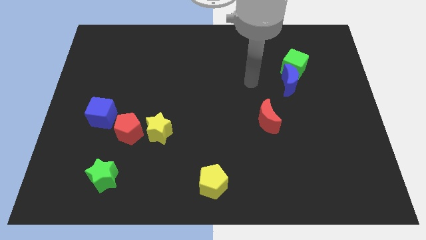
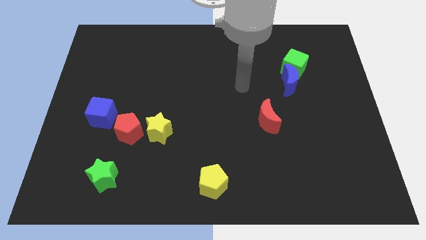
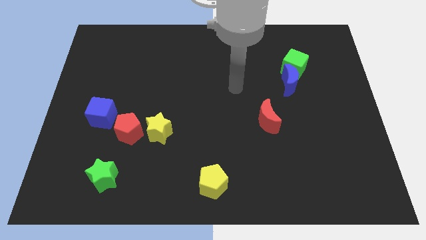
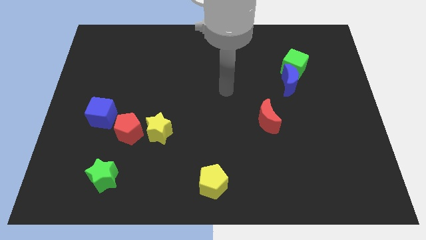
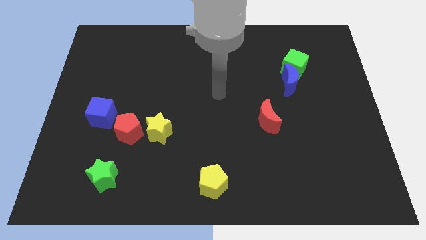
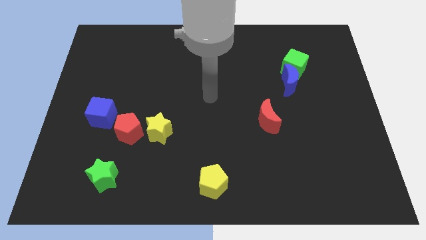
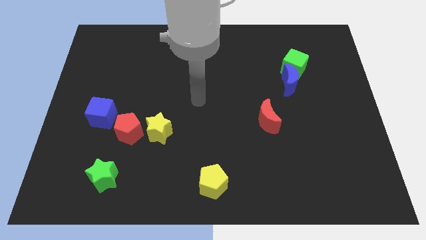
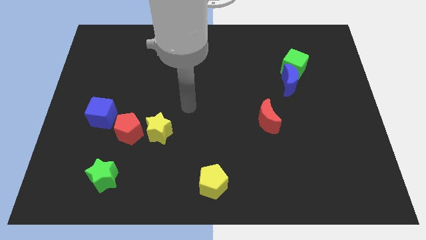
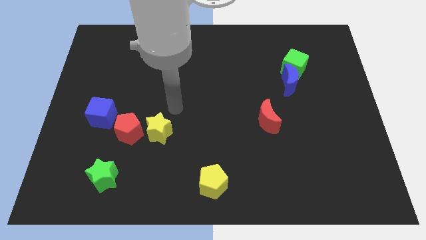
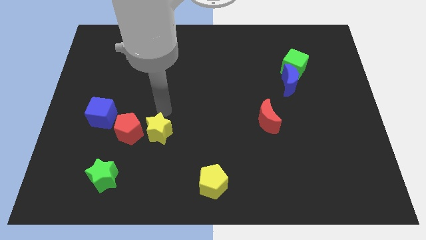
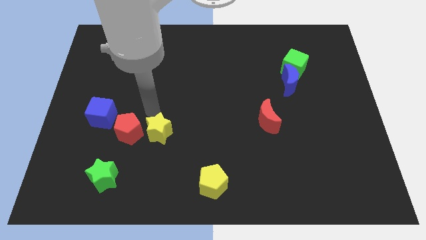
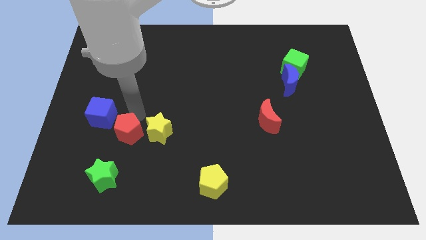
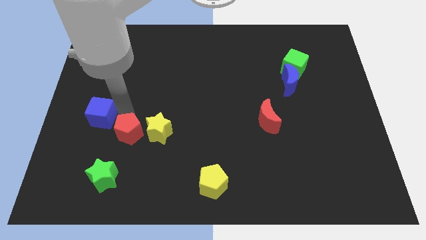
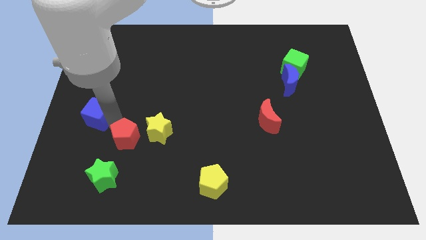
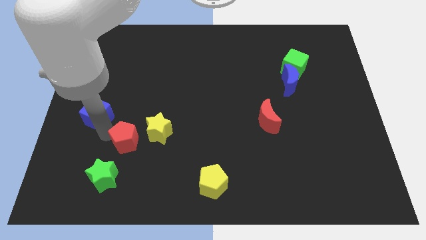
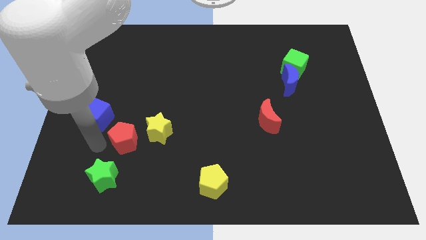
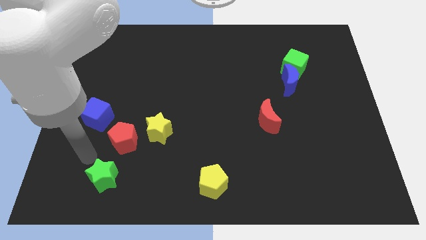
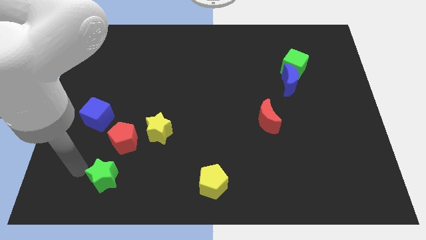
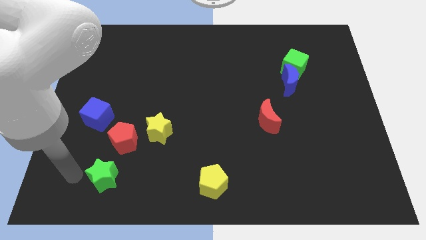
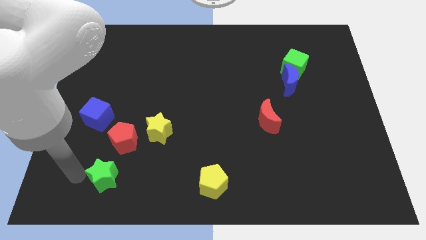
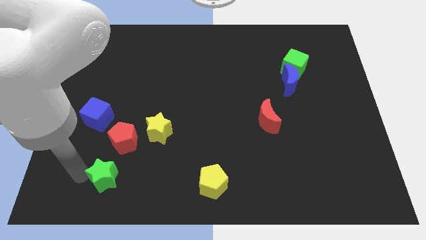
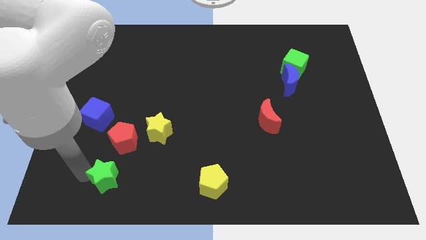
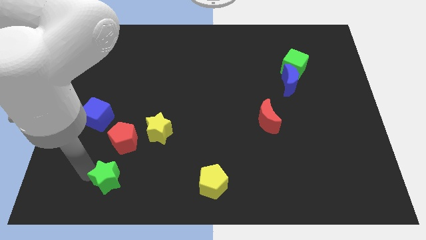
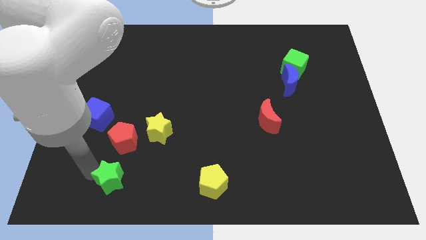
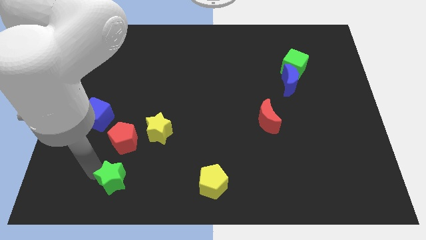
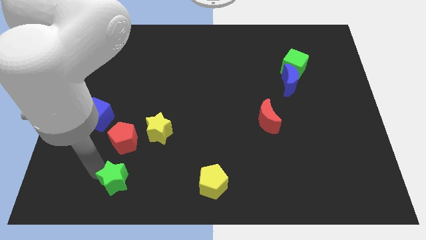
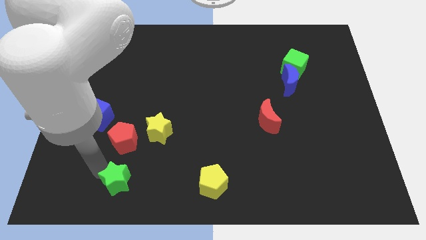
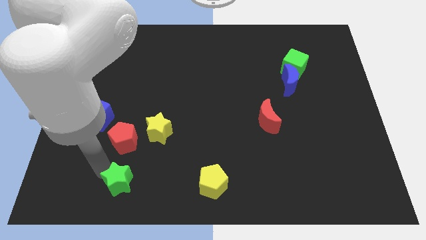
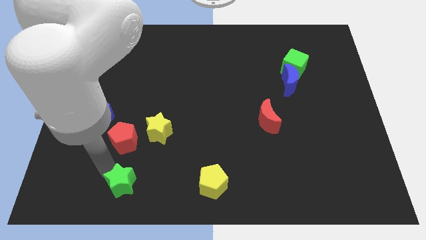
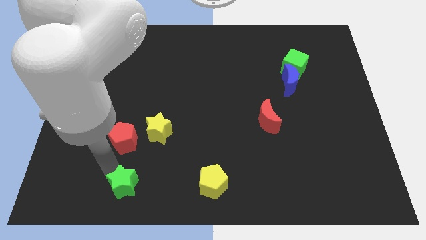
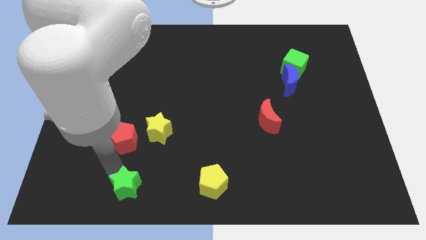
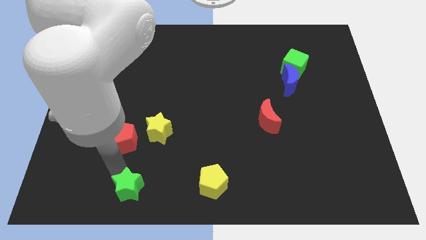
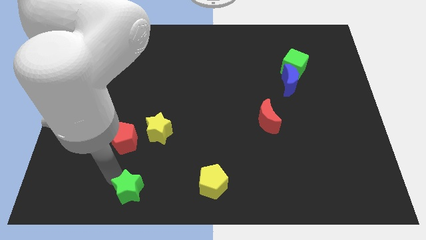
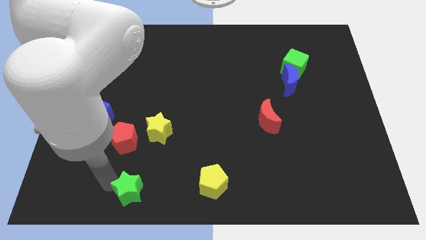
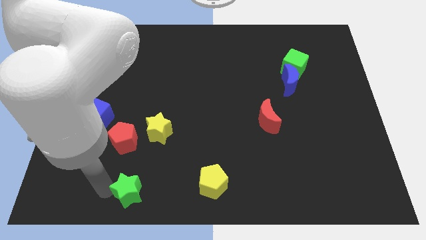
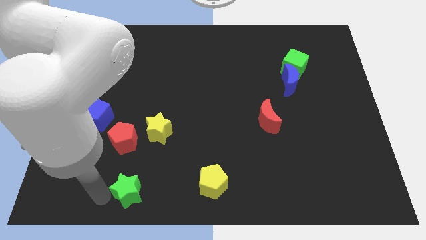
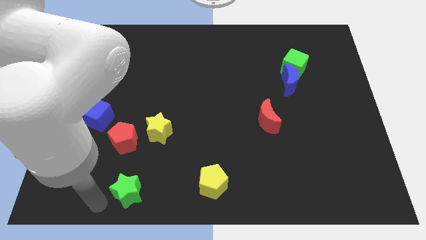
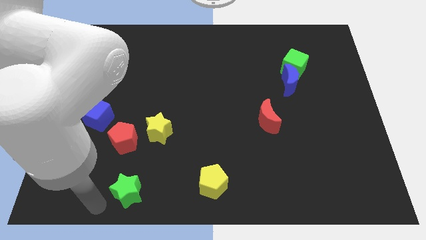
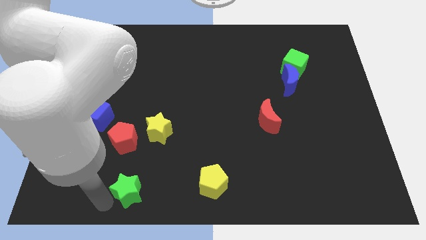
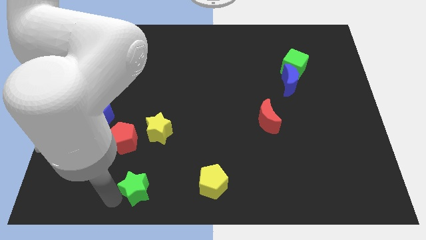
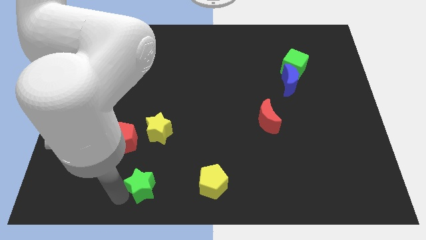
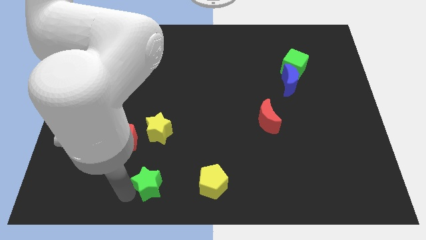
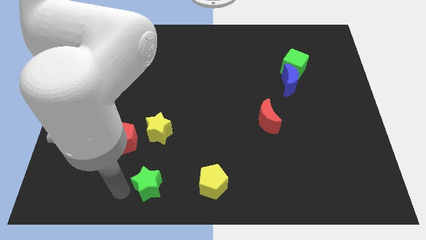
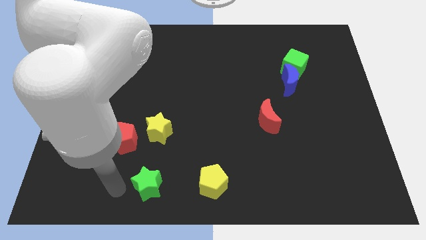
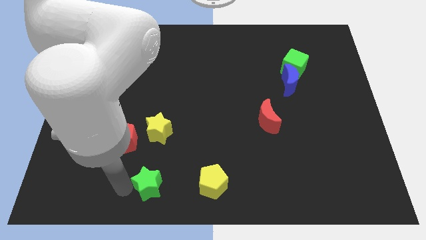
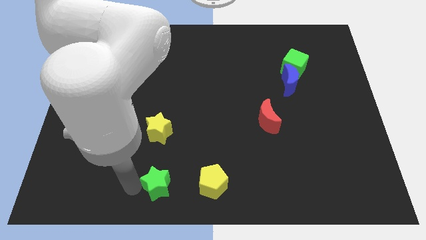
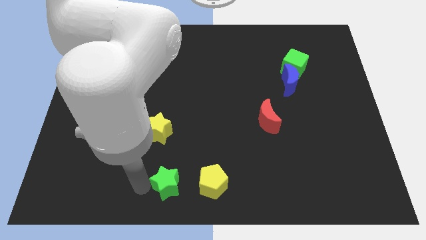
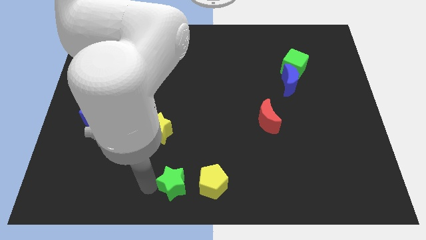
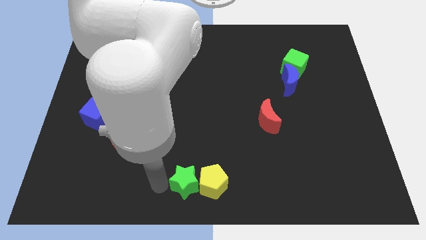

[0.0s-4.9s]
move the green star towards the yellow pentagon

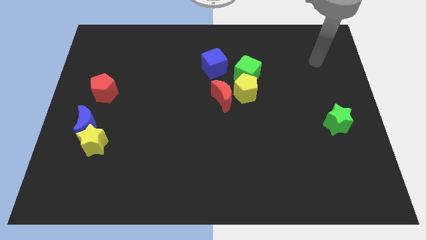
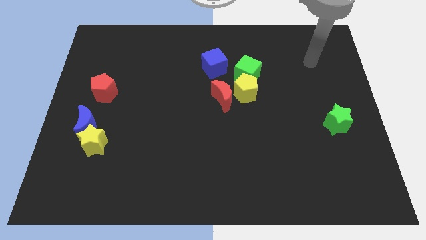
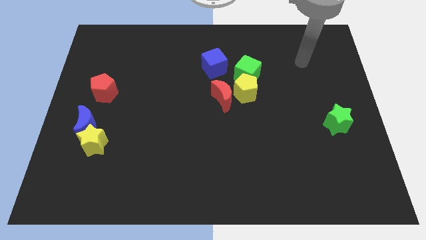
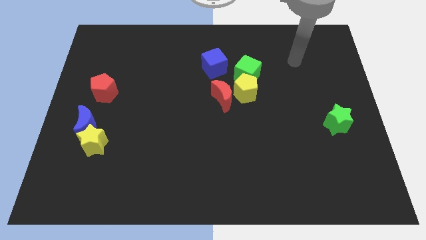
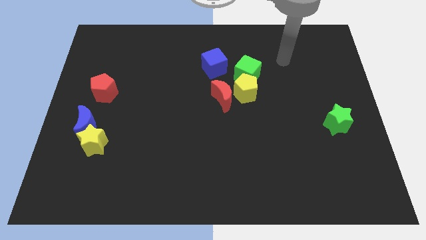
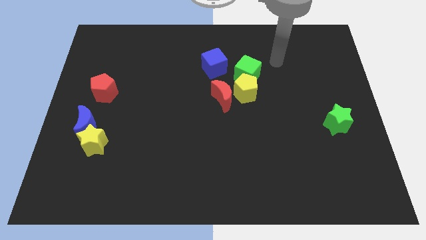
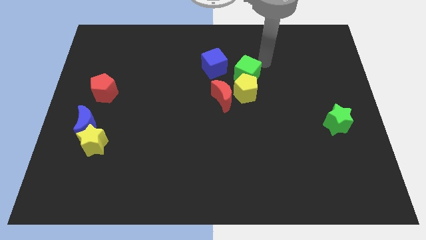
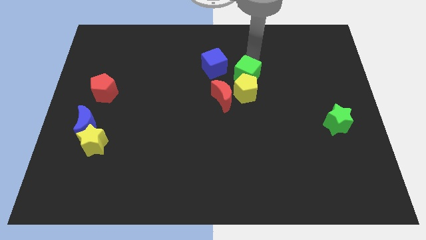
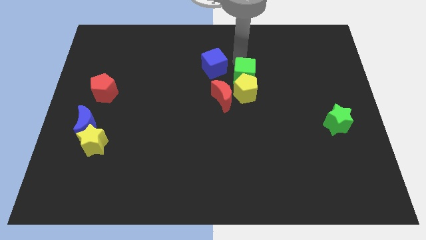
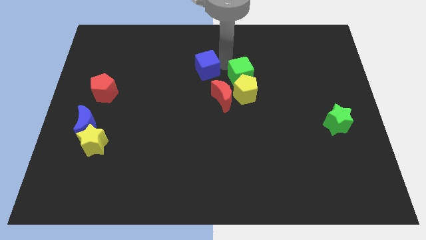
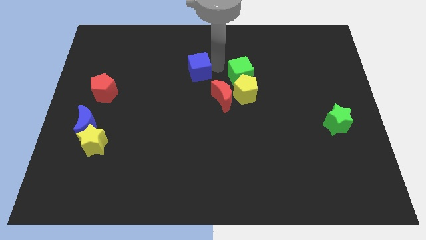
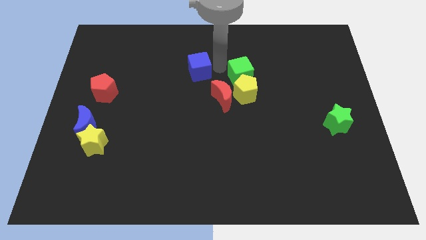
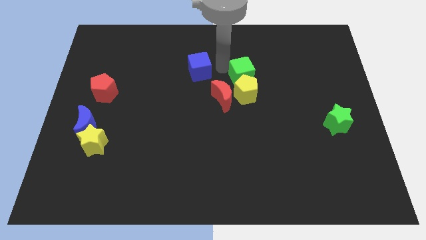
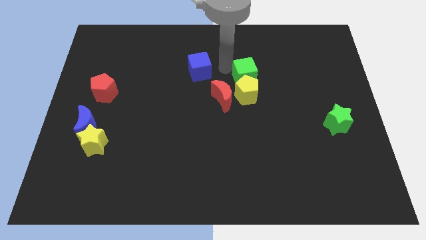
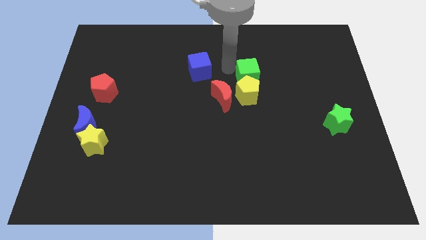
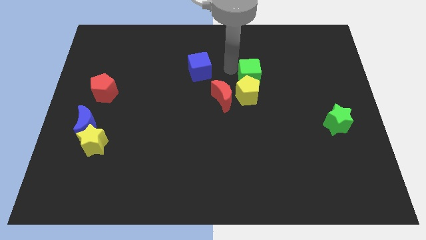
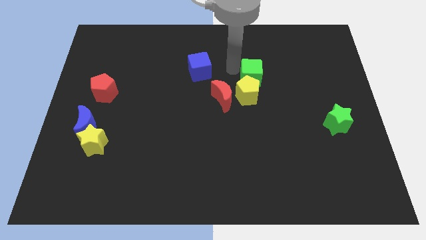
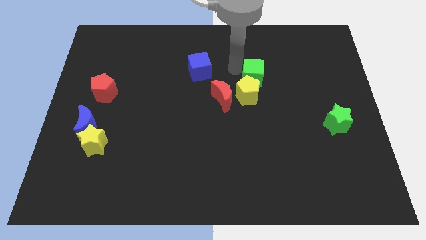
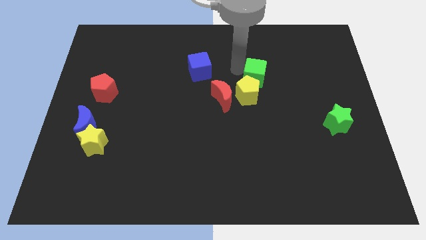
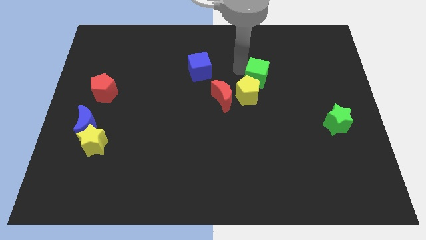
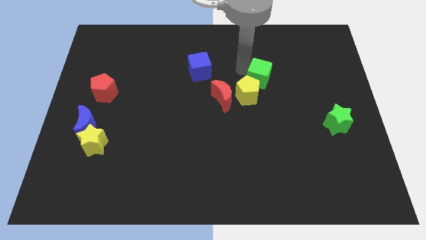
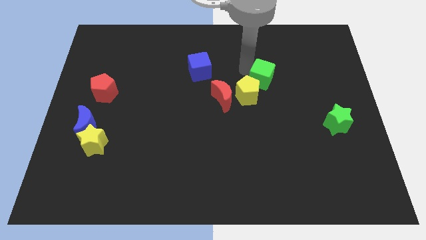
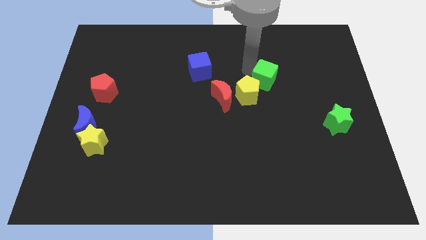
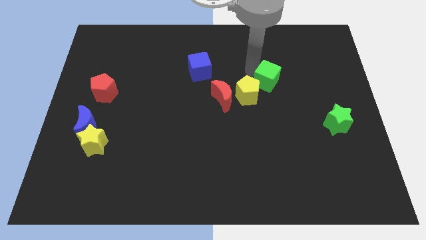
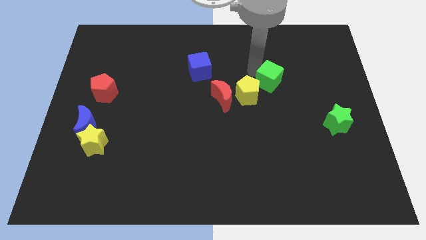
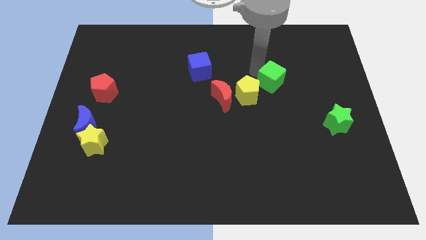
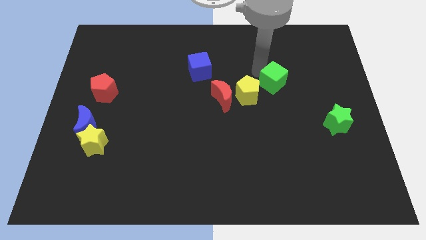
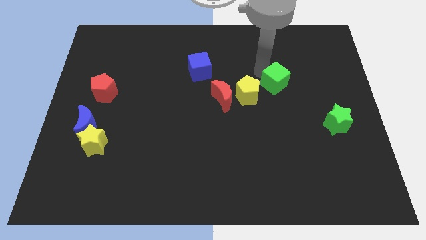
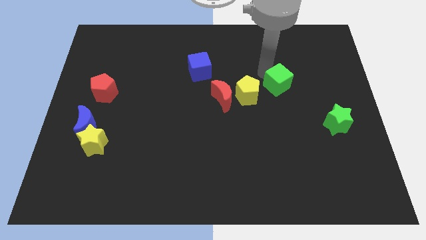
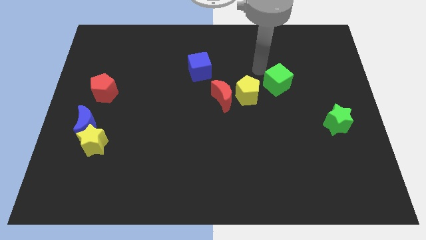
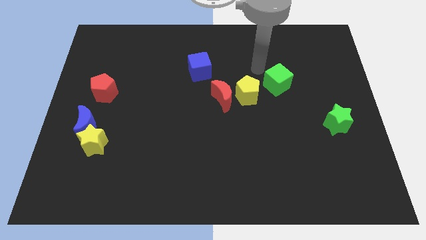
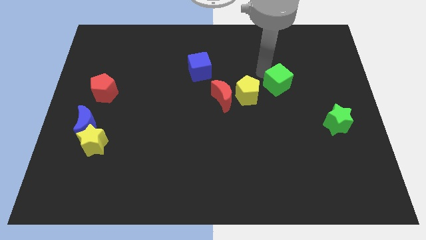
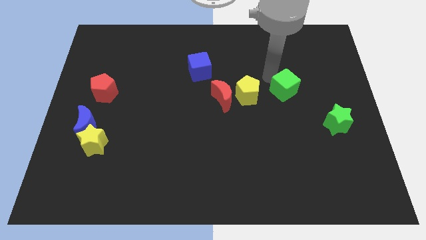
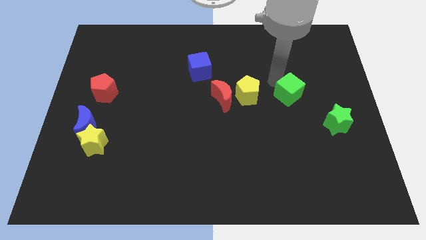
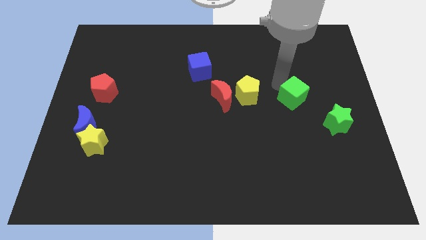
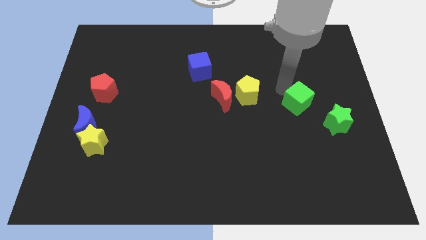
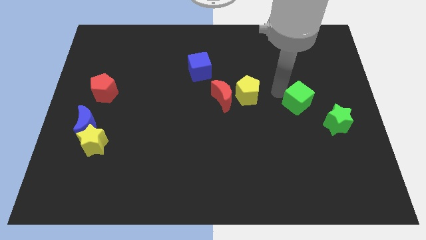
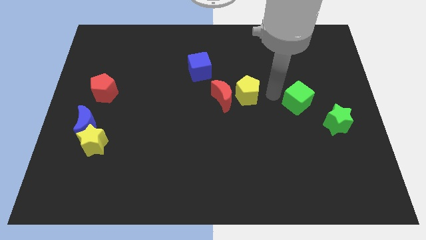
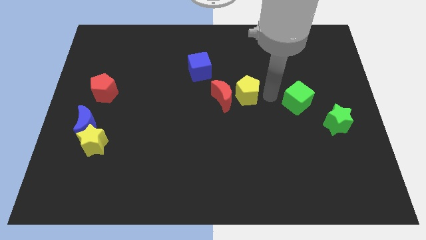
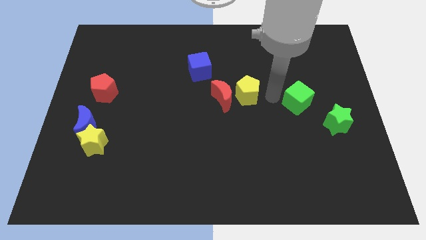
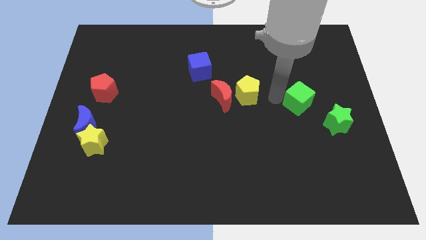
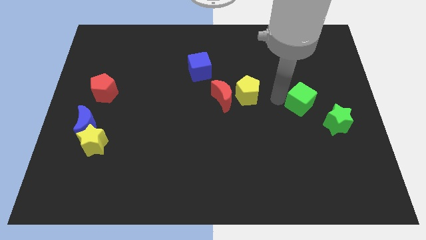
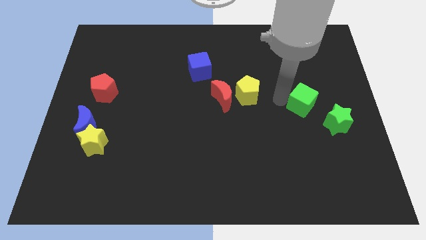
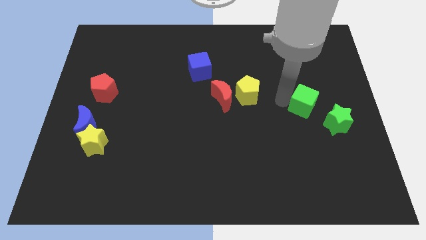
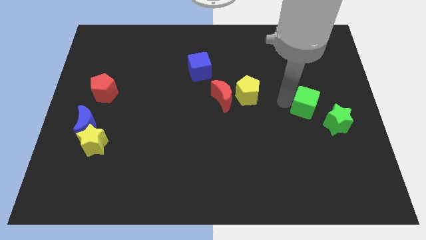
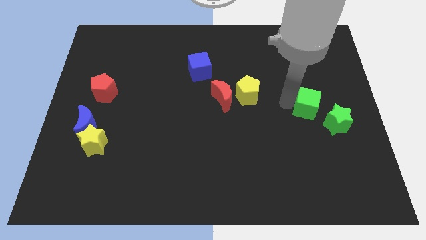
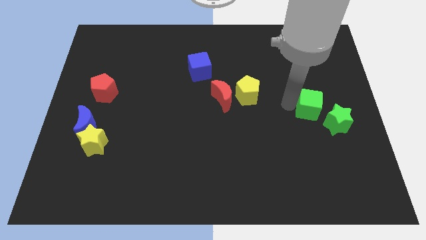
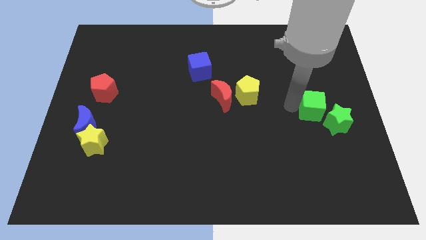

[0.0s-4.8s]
slide the green cube next to the green star
